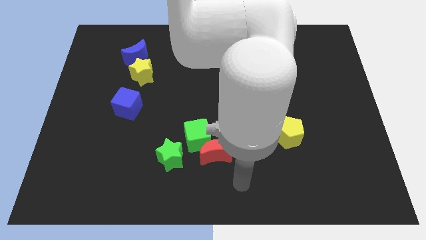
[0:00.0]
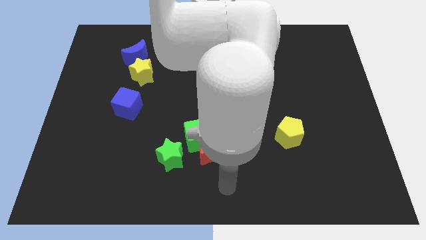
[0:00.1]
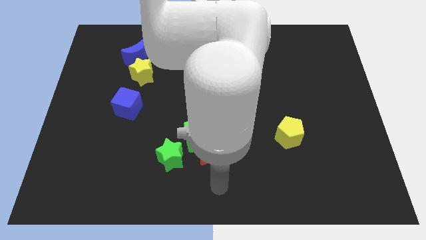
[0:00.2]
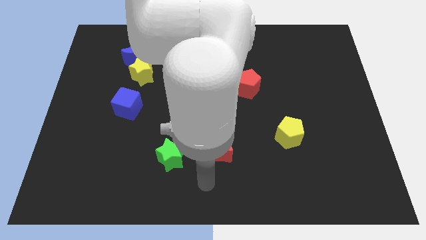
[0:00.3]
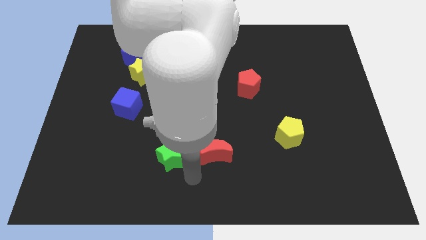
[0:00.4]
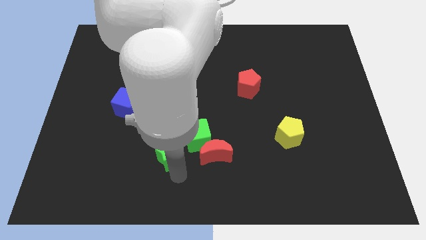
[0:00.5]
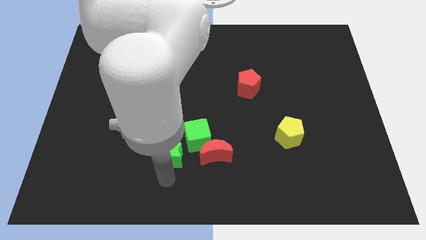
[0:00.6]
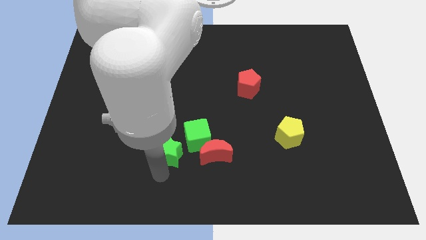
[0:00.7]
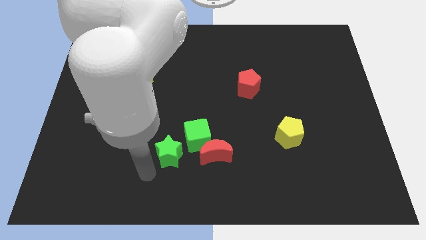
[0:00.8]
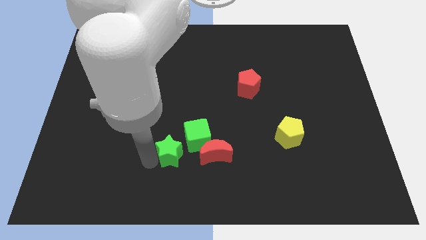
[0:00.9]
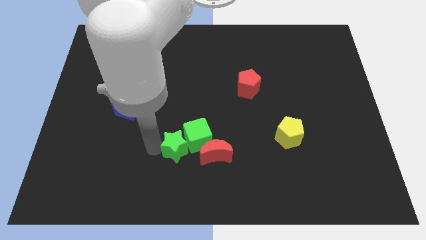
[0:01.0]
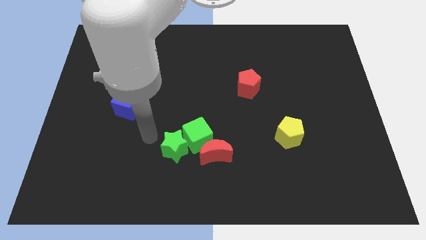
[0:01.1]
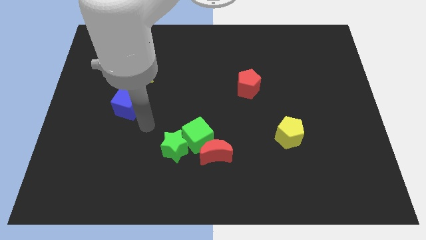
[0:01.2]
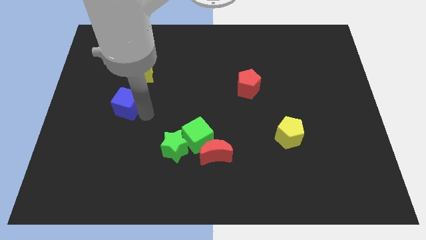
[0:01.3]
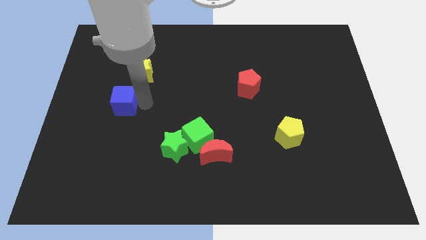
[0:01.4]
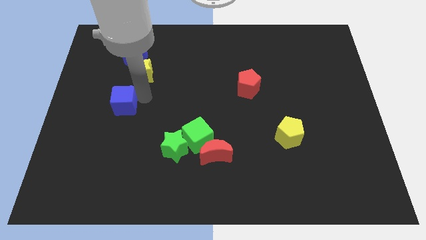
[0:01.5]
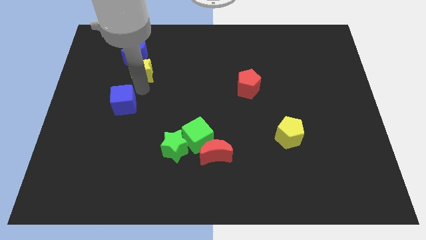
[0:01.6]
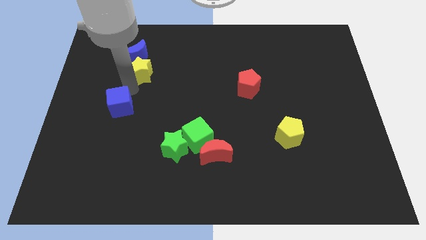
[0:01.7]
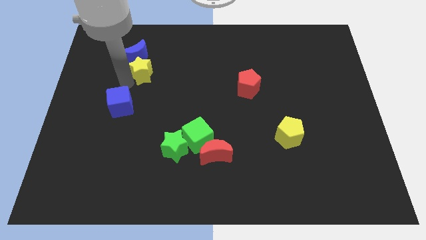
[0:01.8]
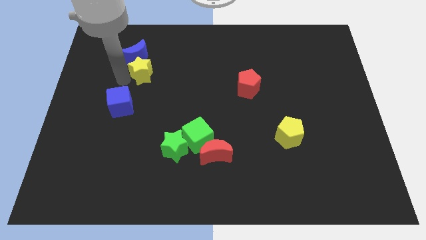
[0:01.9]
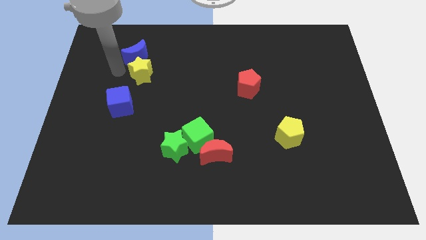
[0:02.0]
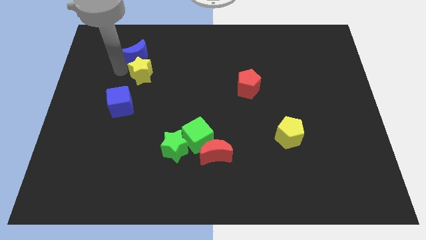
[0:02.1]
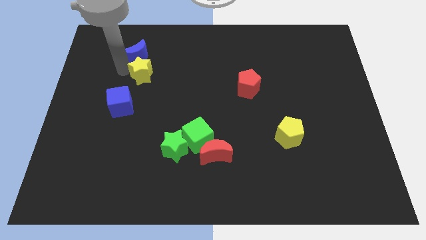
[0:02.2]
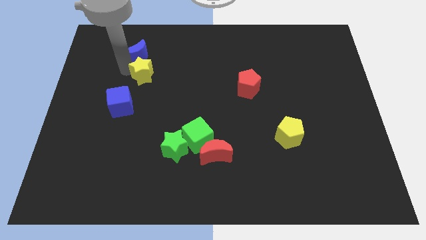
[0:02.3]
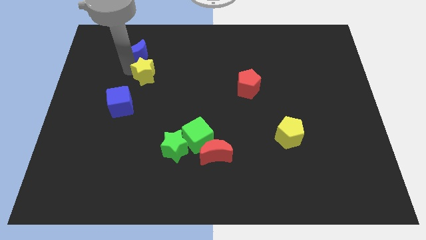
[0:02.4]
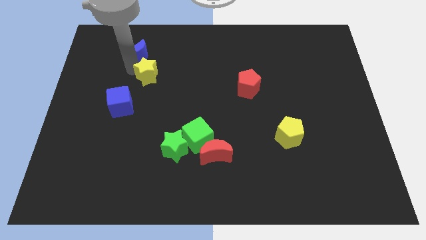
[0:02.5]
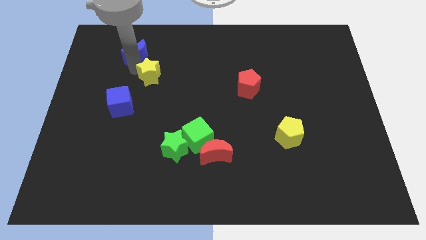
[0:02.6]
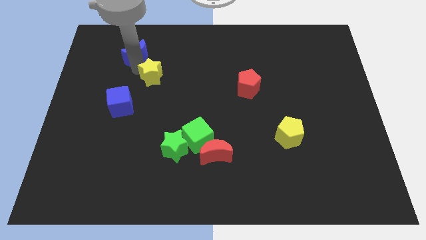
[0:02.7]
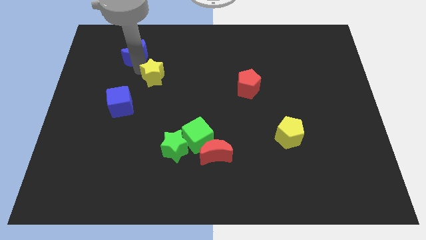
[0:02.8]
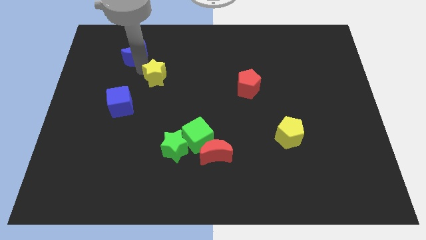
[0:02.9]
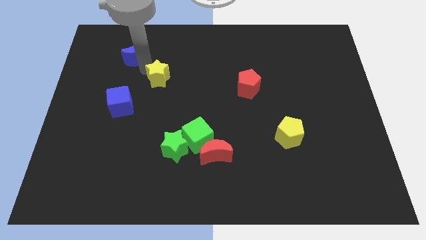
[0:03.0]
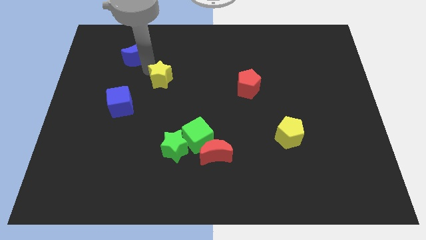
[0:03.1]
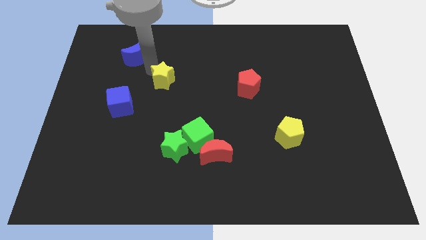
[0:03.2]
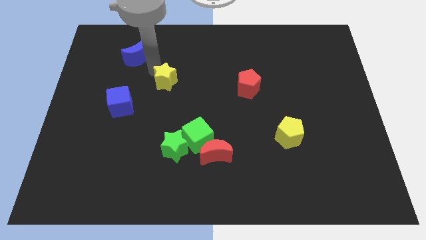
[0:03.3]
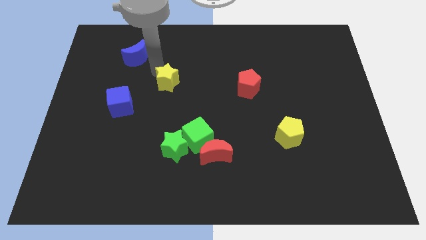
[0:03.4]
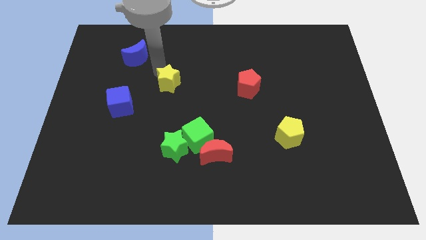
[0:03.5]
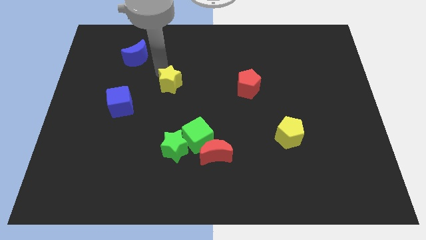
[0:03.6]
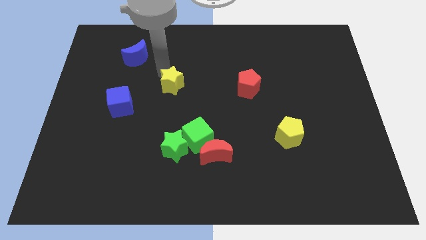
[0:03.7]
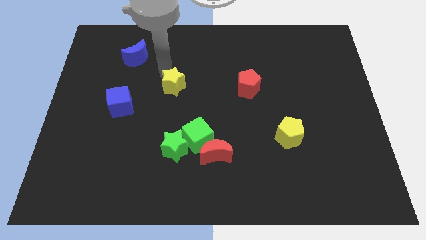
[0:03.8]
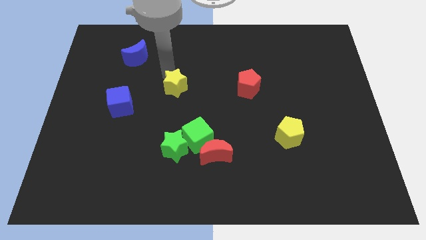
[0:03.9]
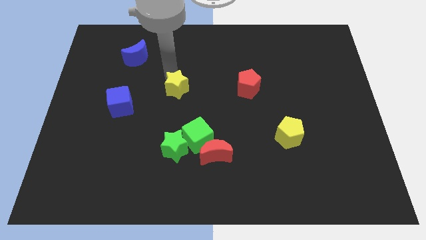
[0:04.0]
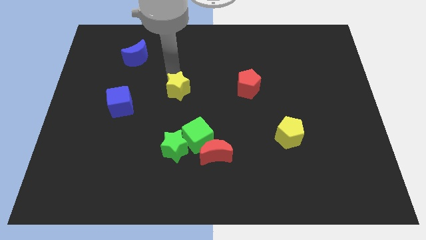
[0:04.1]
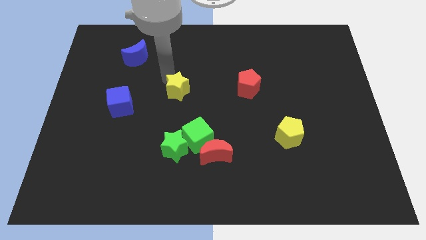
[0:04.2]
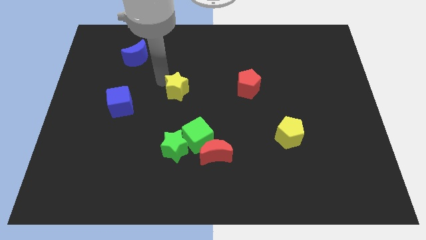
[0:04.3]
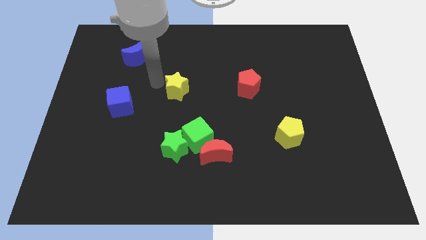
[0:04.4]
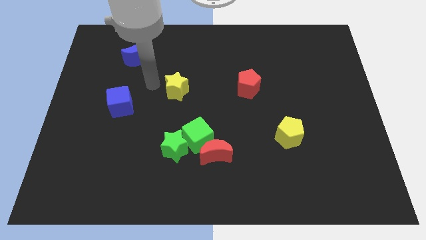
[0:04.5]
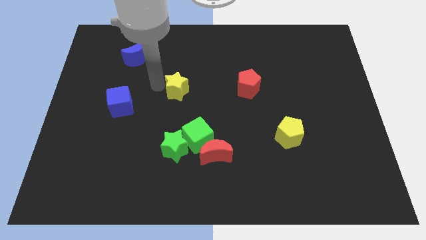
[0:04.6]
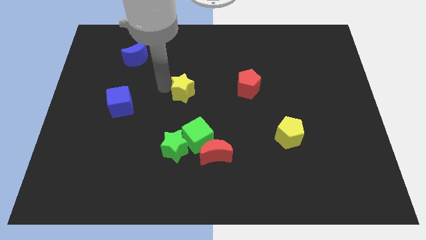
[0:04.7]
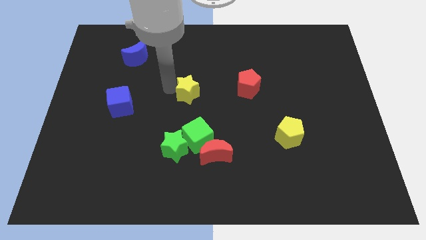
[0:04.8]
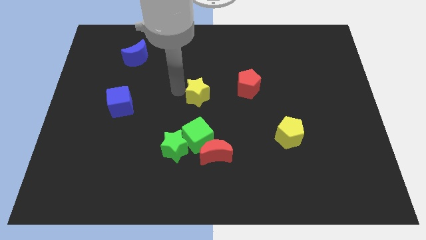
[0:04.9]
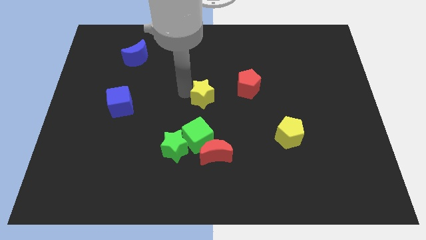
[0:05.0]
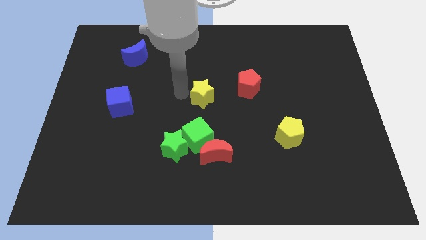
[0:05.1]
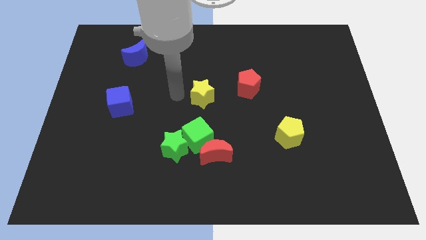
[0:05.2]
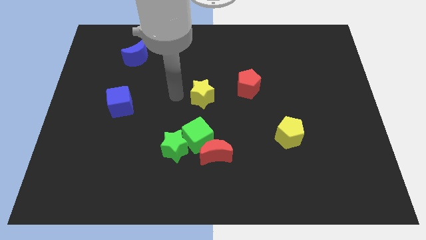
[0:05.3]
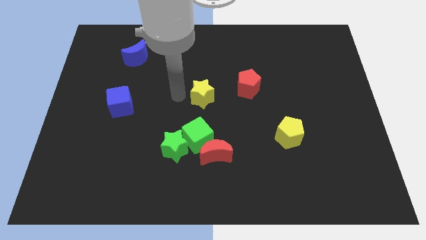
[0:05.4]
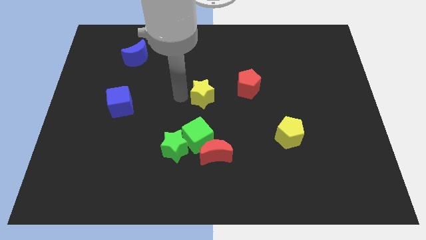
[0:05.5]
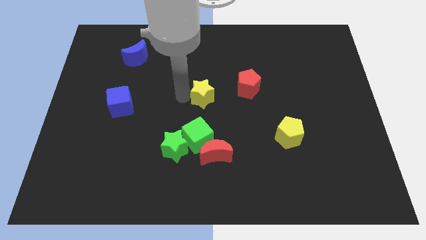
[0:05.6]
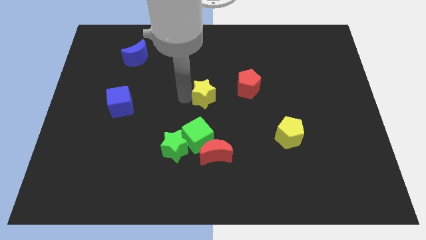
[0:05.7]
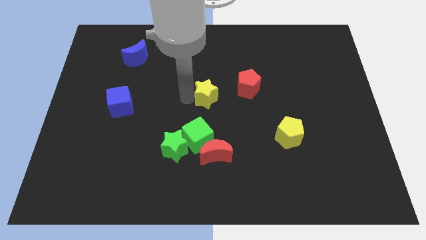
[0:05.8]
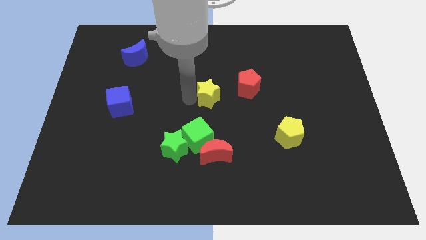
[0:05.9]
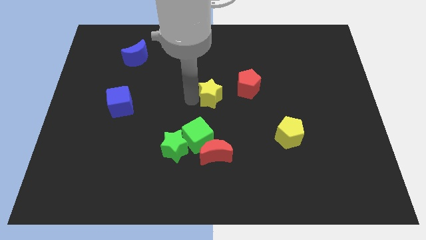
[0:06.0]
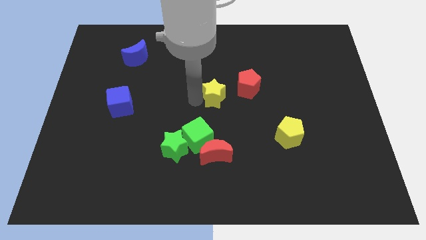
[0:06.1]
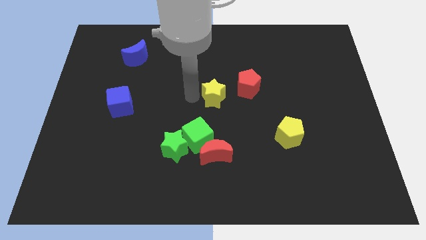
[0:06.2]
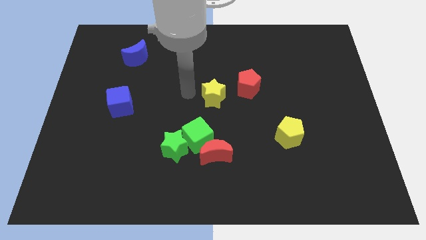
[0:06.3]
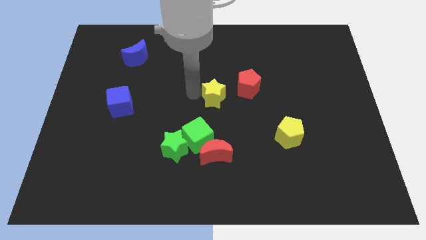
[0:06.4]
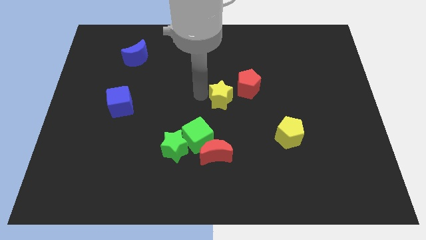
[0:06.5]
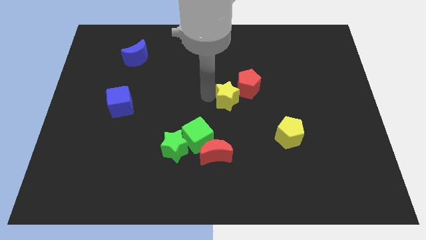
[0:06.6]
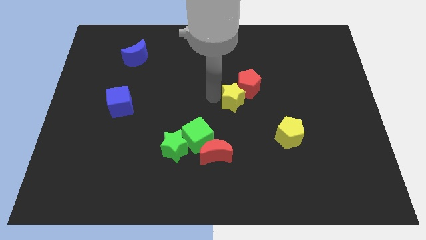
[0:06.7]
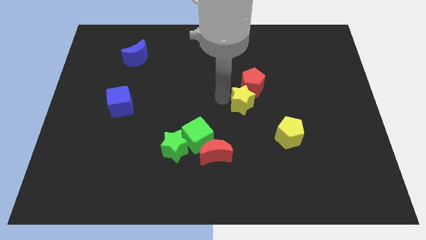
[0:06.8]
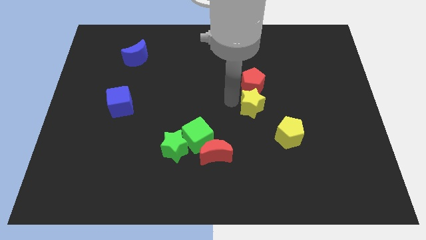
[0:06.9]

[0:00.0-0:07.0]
push the yellow star to the bottom right of the red pentagon
